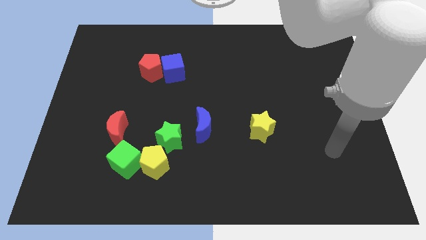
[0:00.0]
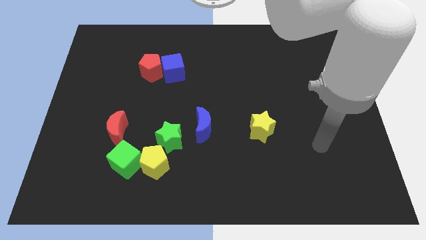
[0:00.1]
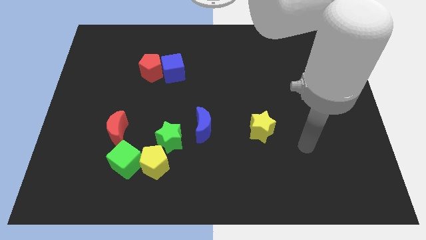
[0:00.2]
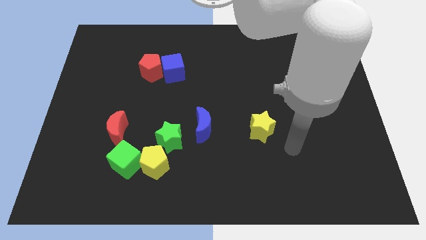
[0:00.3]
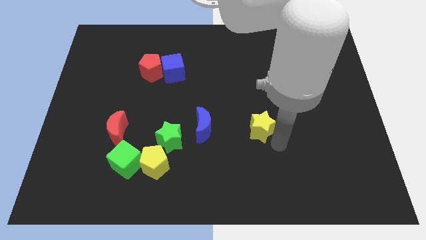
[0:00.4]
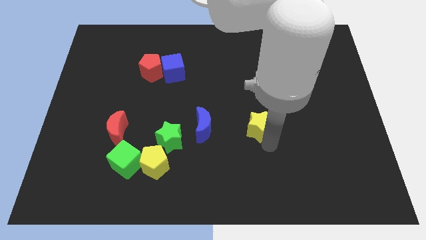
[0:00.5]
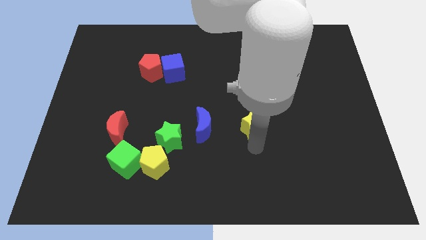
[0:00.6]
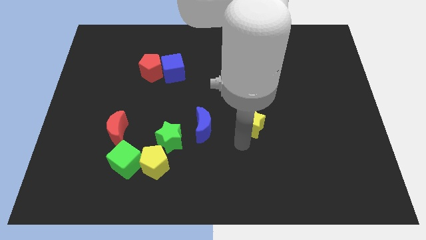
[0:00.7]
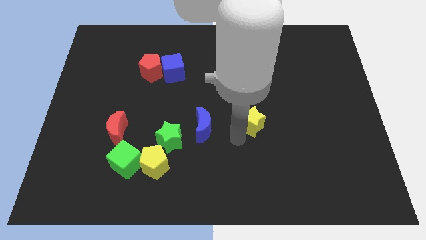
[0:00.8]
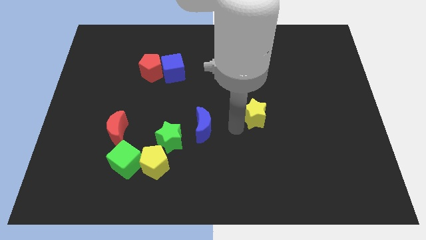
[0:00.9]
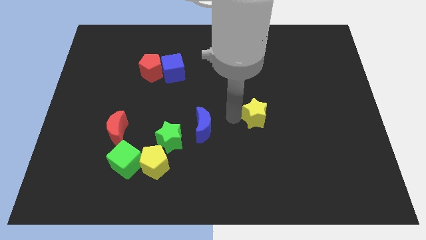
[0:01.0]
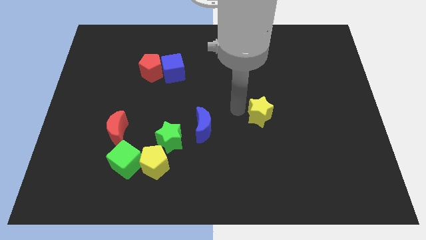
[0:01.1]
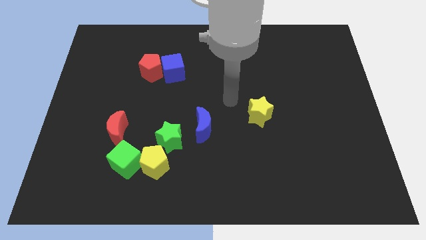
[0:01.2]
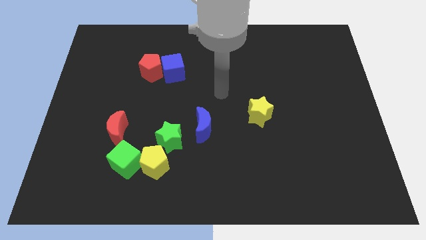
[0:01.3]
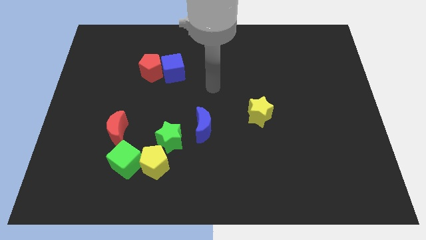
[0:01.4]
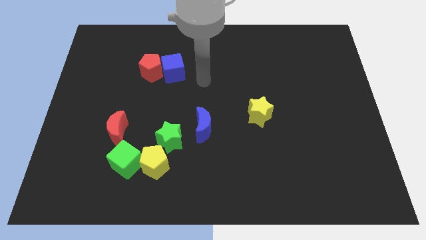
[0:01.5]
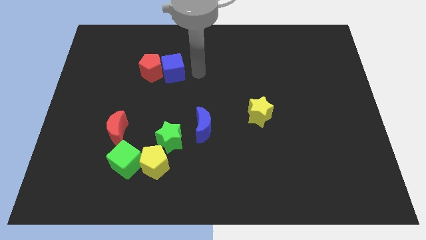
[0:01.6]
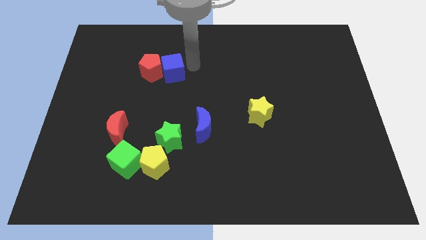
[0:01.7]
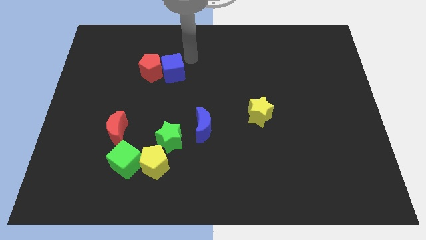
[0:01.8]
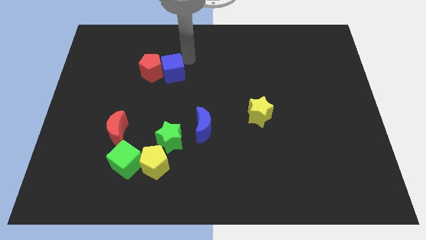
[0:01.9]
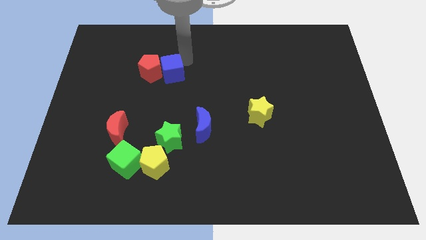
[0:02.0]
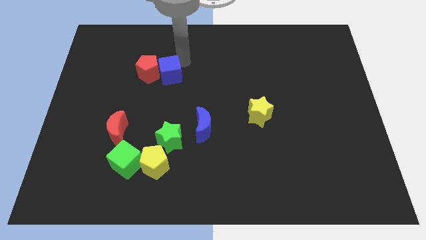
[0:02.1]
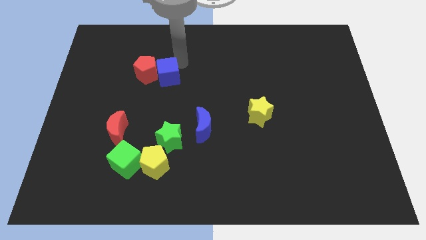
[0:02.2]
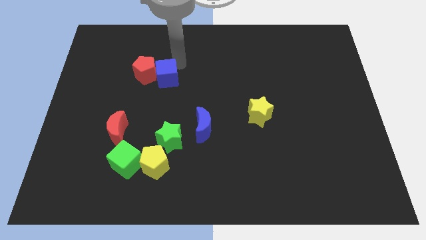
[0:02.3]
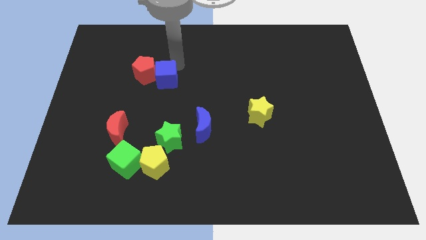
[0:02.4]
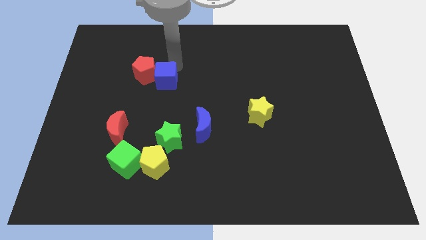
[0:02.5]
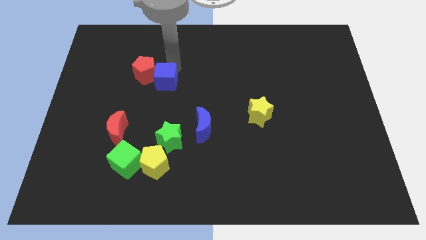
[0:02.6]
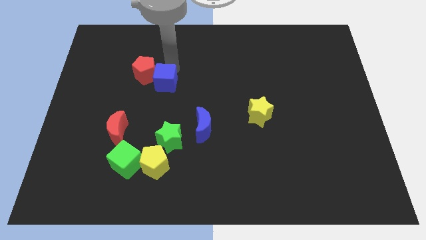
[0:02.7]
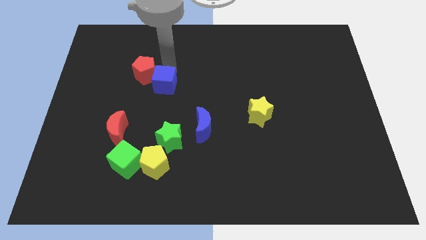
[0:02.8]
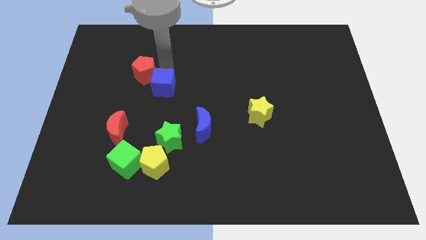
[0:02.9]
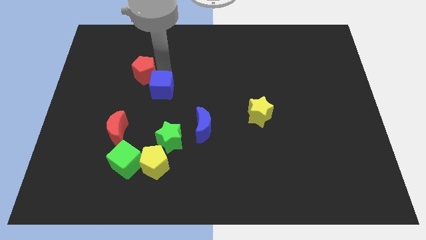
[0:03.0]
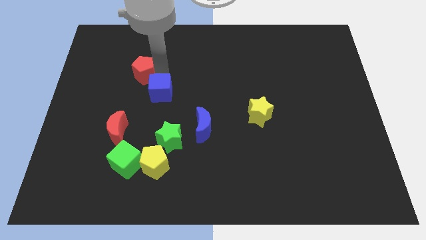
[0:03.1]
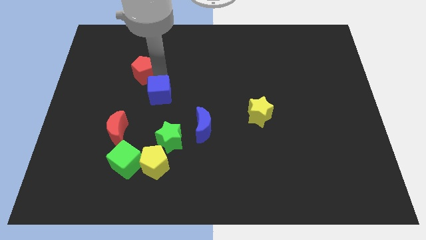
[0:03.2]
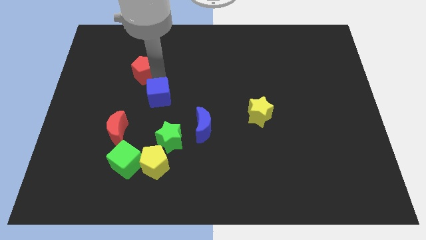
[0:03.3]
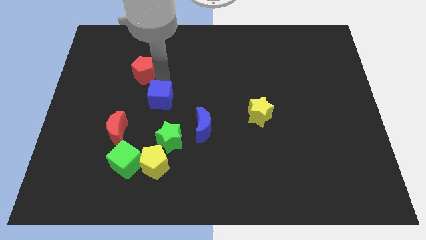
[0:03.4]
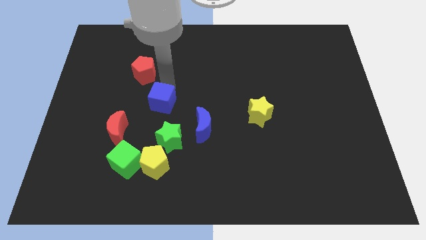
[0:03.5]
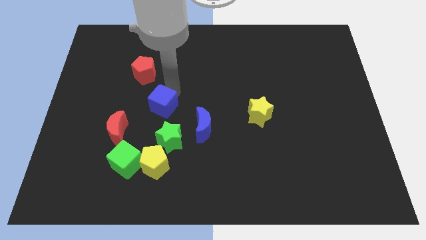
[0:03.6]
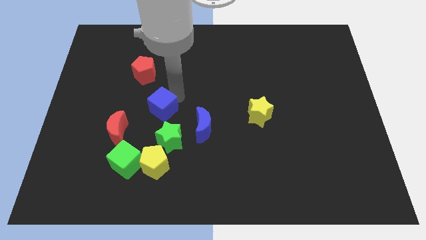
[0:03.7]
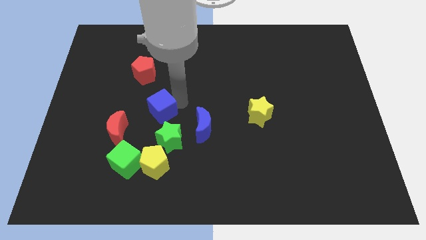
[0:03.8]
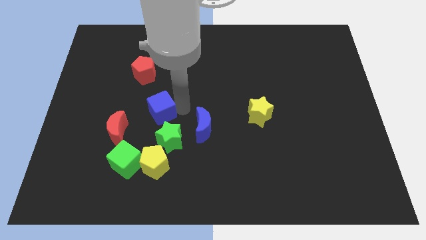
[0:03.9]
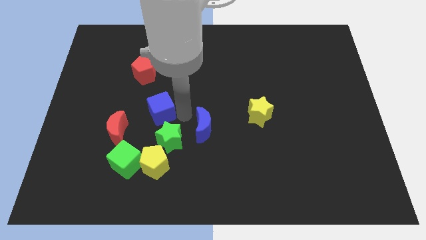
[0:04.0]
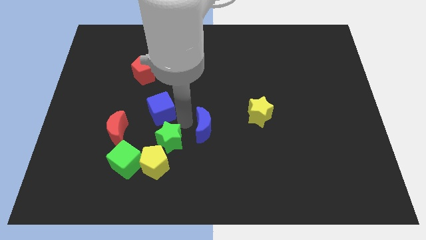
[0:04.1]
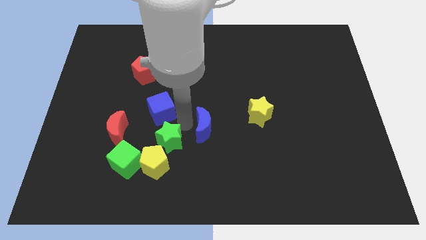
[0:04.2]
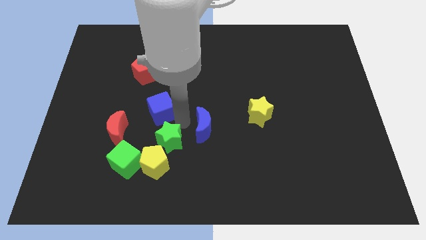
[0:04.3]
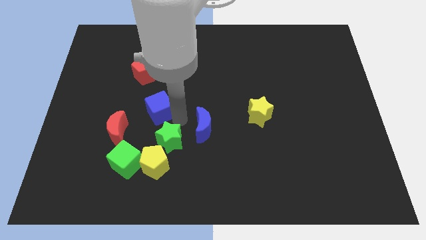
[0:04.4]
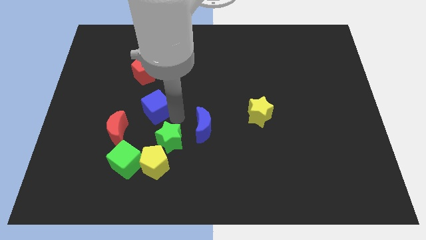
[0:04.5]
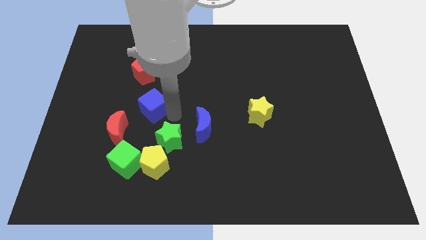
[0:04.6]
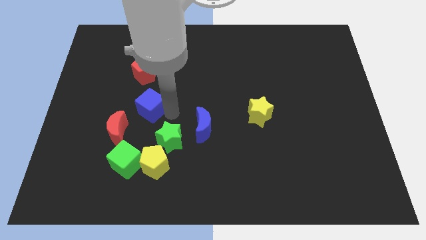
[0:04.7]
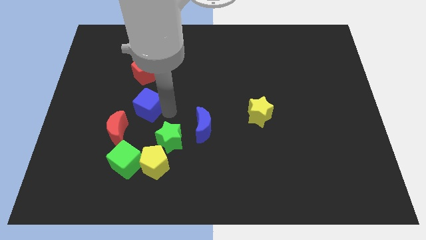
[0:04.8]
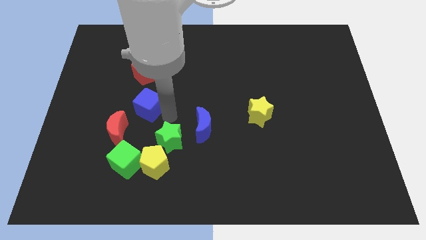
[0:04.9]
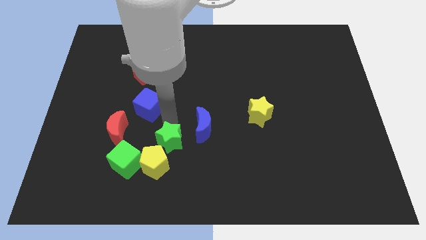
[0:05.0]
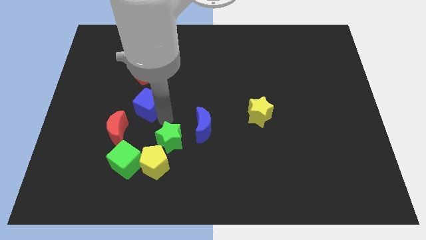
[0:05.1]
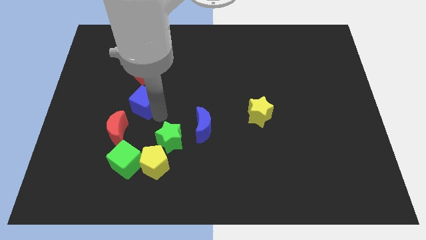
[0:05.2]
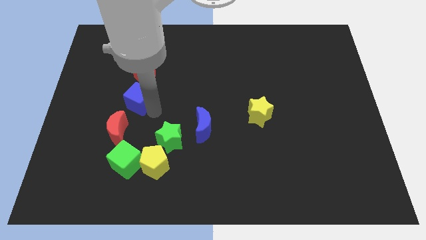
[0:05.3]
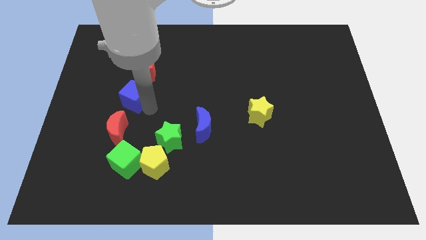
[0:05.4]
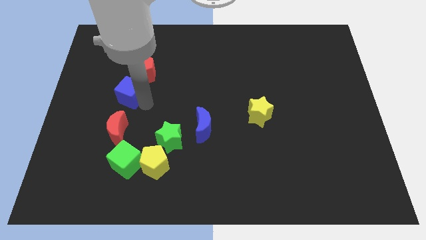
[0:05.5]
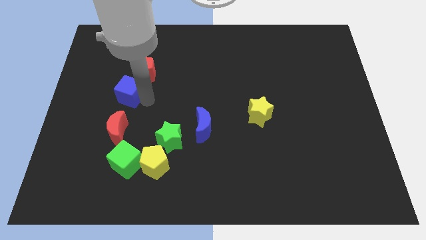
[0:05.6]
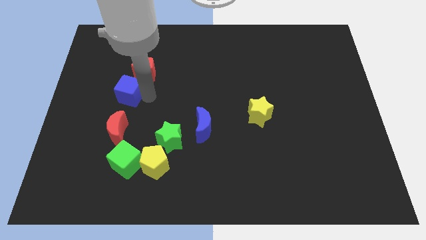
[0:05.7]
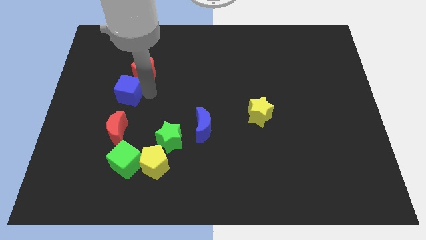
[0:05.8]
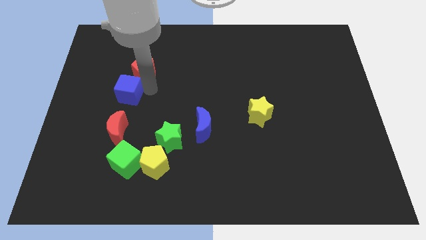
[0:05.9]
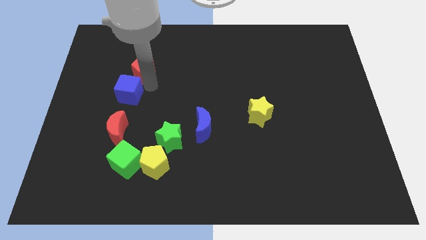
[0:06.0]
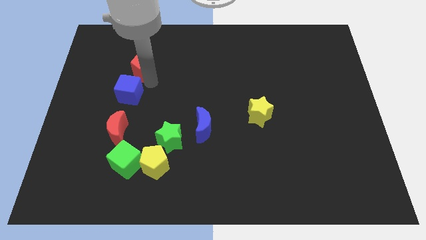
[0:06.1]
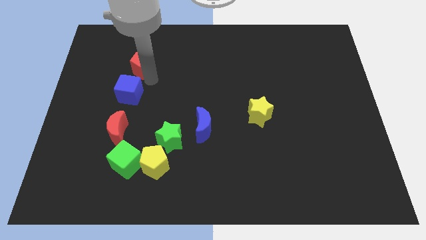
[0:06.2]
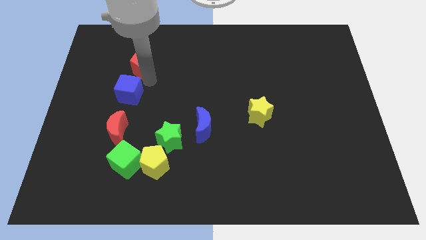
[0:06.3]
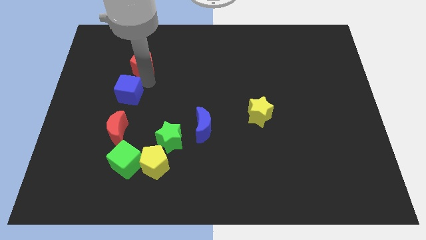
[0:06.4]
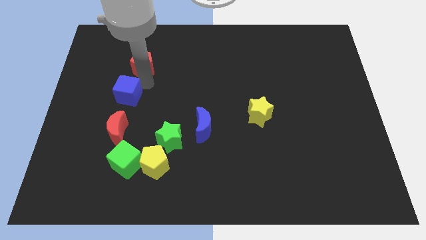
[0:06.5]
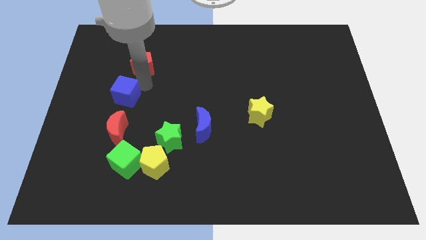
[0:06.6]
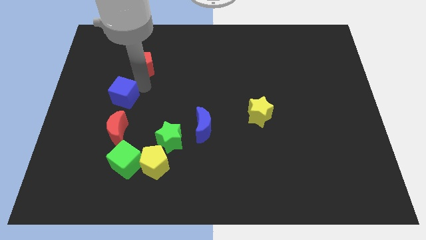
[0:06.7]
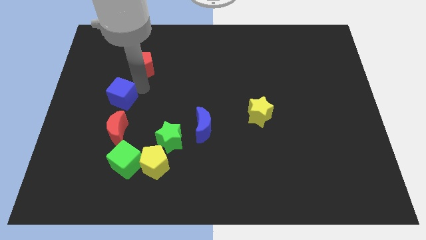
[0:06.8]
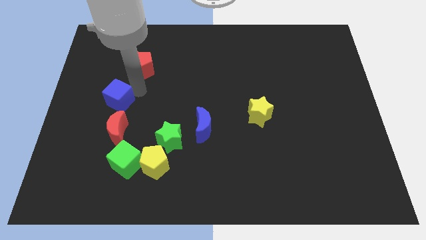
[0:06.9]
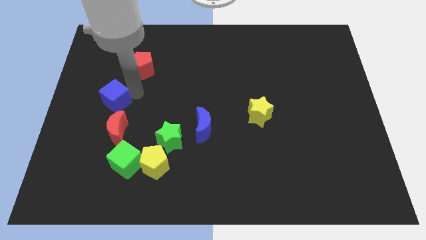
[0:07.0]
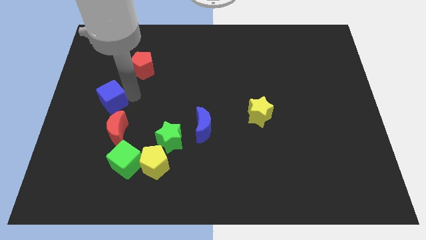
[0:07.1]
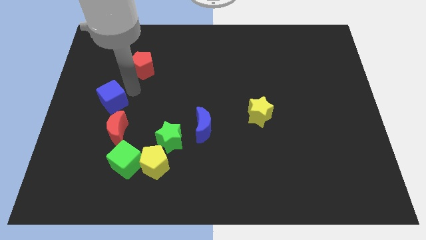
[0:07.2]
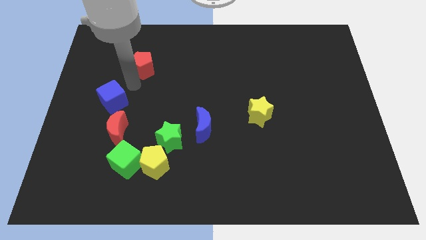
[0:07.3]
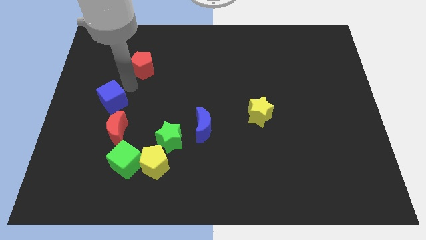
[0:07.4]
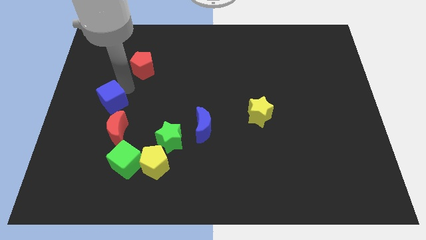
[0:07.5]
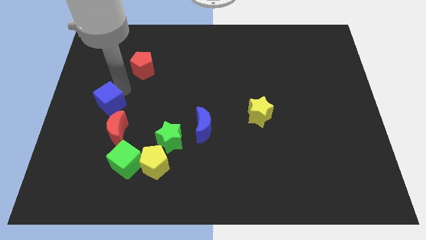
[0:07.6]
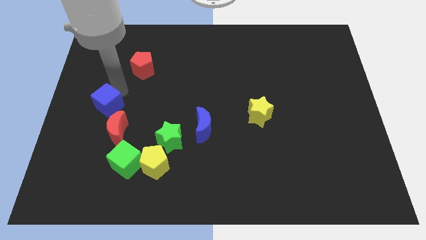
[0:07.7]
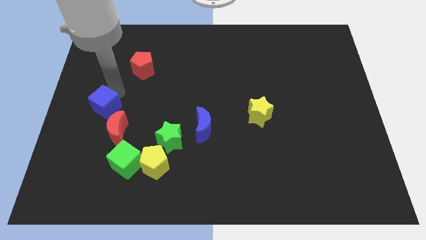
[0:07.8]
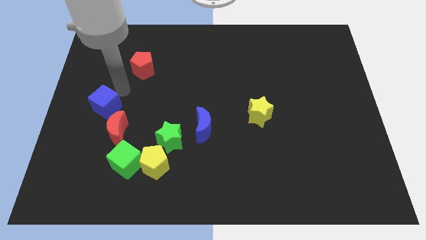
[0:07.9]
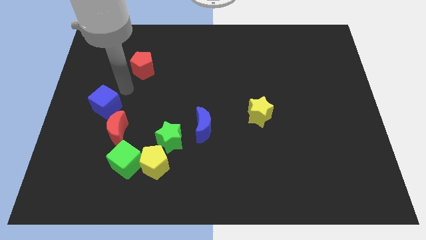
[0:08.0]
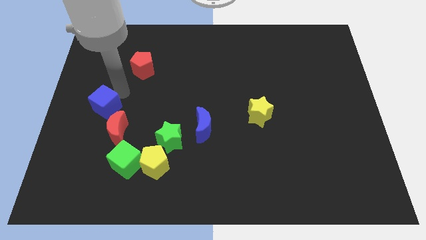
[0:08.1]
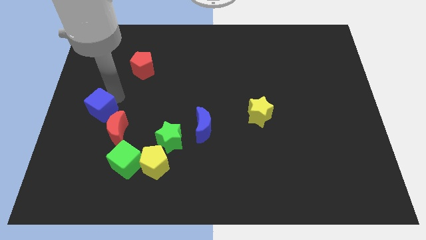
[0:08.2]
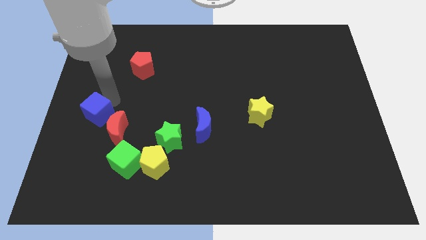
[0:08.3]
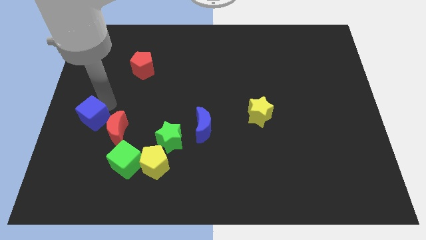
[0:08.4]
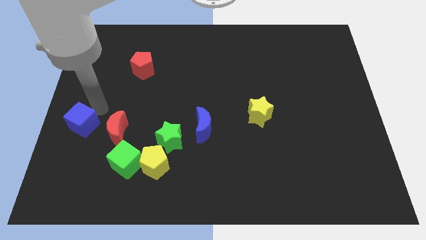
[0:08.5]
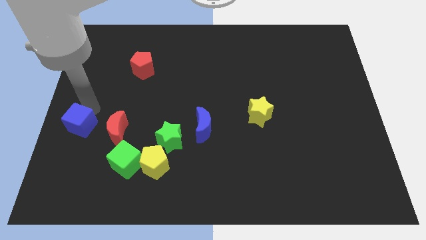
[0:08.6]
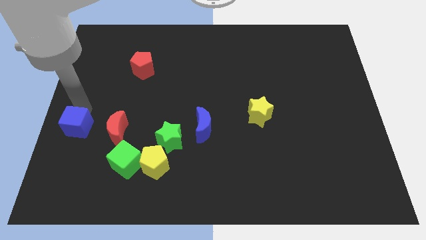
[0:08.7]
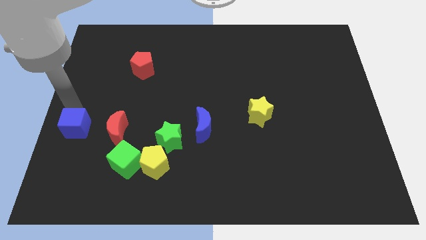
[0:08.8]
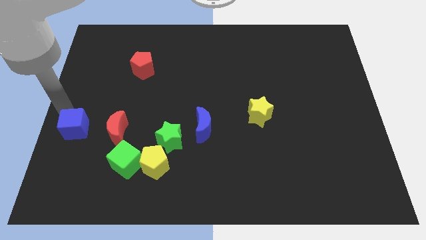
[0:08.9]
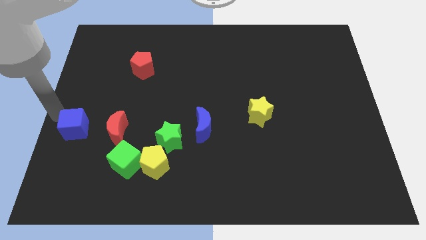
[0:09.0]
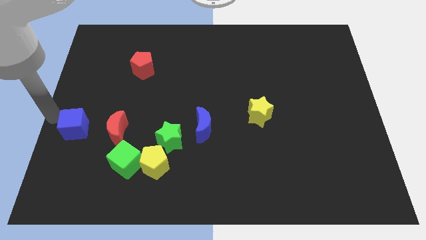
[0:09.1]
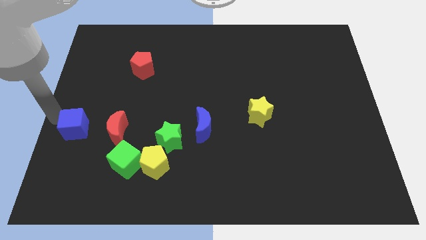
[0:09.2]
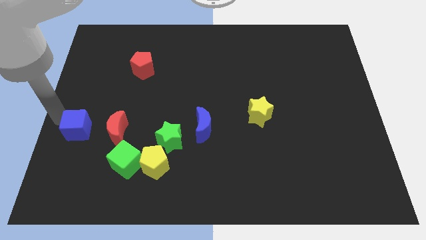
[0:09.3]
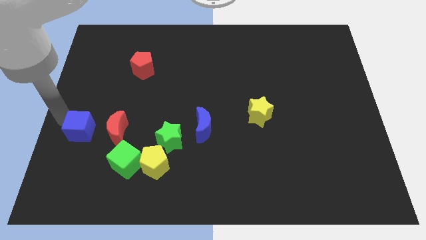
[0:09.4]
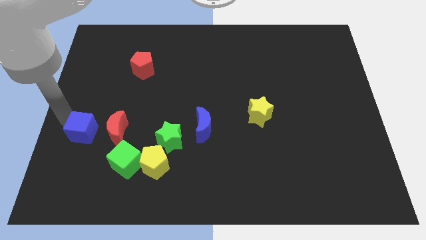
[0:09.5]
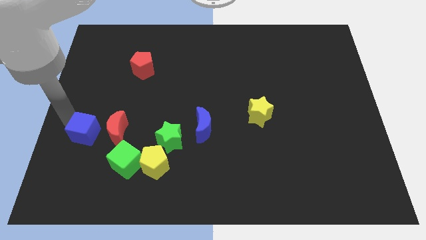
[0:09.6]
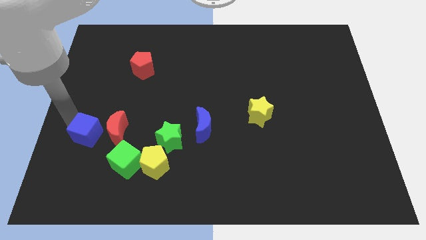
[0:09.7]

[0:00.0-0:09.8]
put the blue cube to the top left of the green cube
